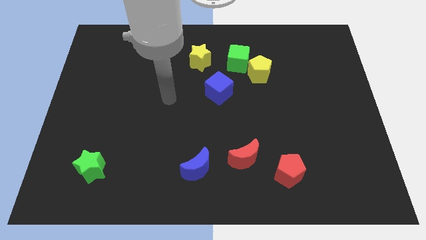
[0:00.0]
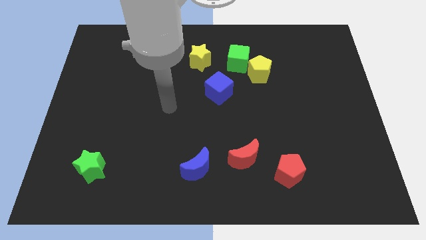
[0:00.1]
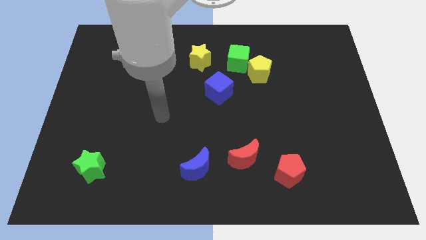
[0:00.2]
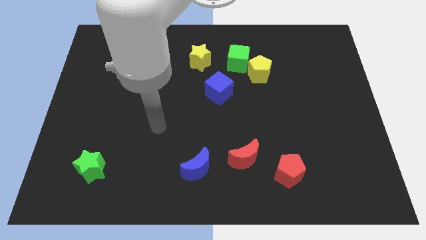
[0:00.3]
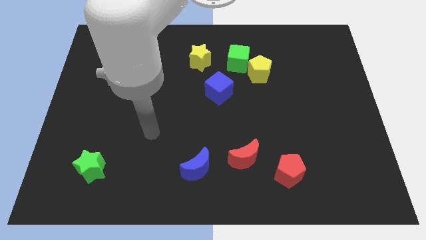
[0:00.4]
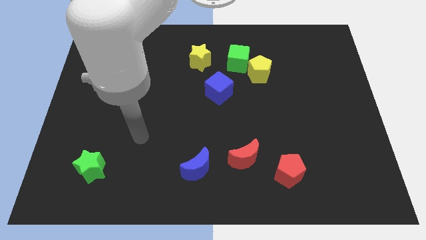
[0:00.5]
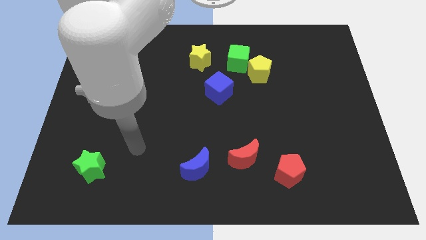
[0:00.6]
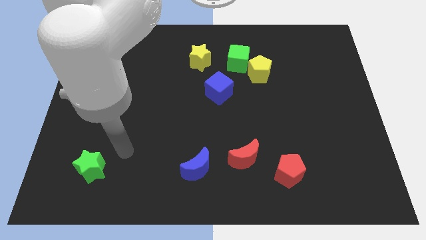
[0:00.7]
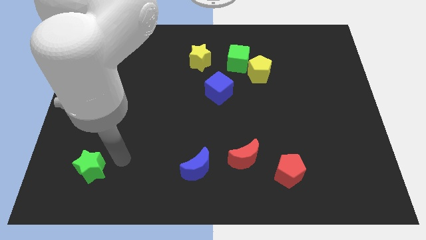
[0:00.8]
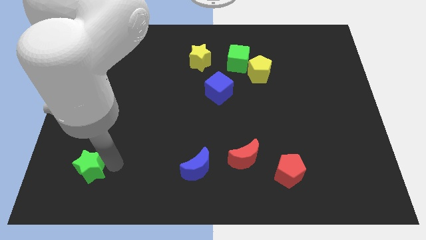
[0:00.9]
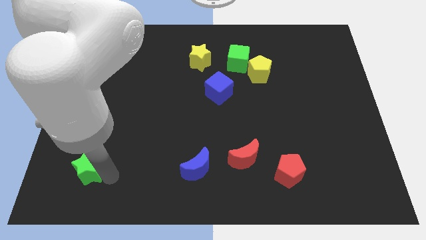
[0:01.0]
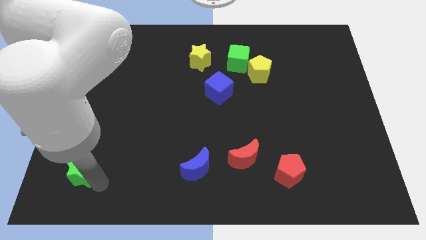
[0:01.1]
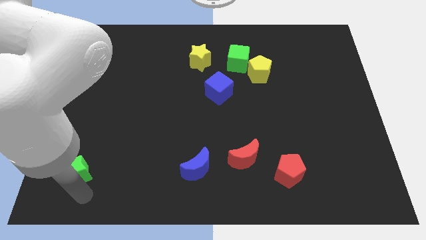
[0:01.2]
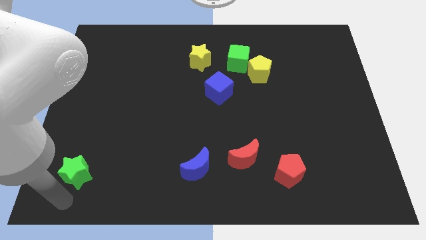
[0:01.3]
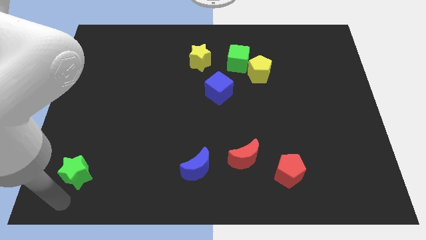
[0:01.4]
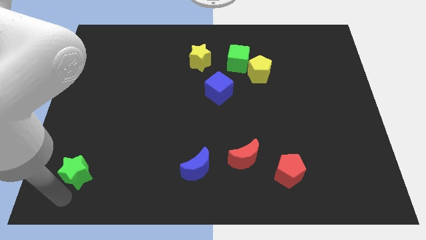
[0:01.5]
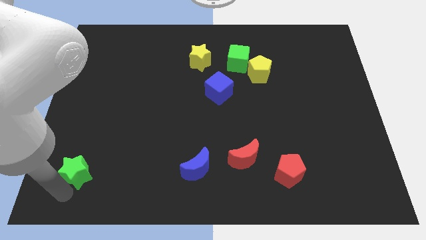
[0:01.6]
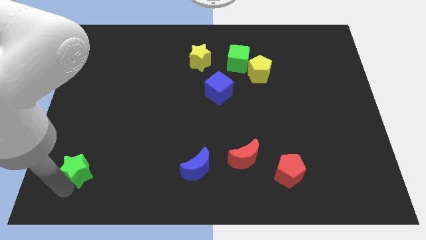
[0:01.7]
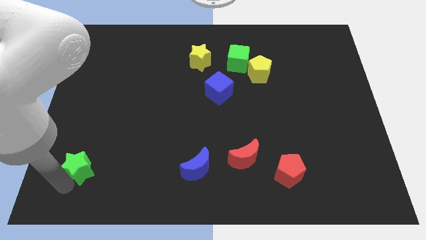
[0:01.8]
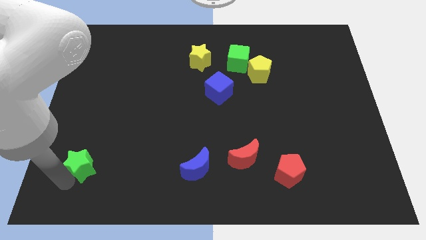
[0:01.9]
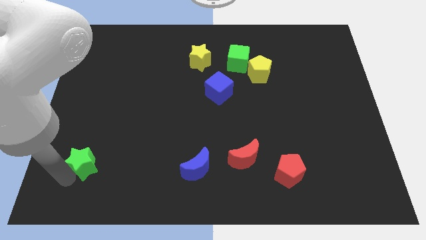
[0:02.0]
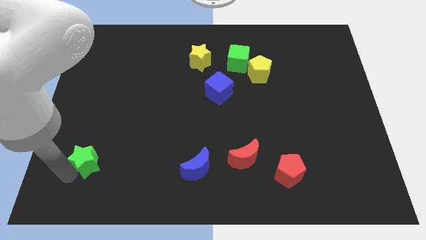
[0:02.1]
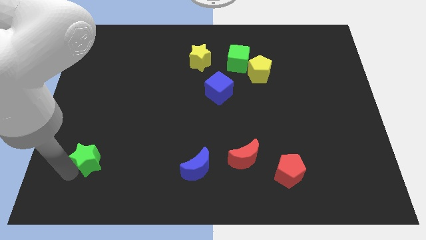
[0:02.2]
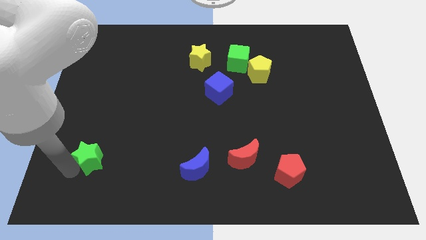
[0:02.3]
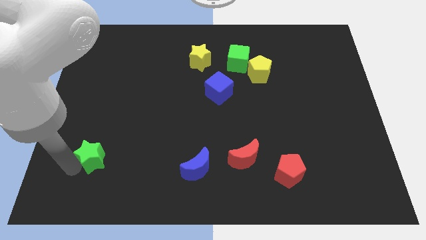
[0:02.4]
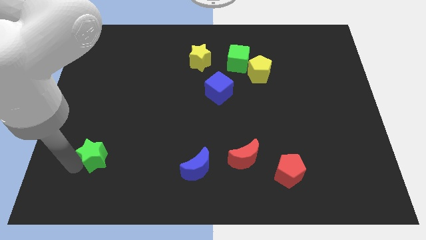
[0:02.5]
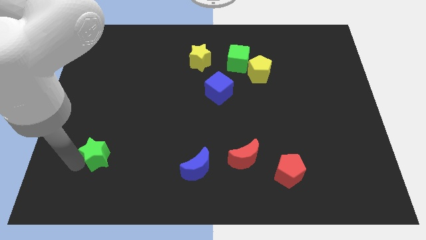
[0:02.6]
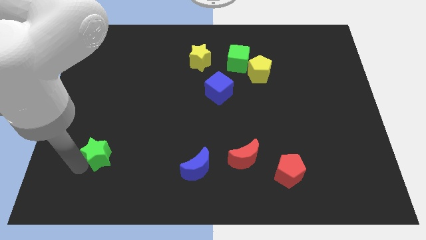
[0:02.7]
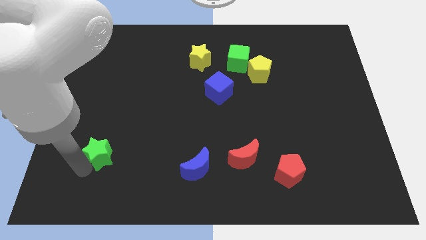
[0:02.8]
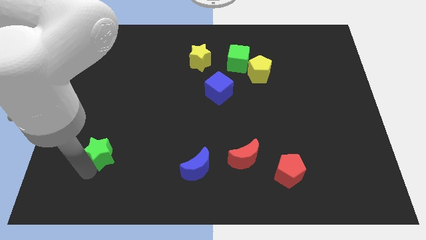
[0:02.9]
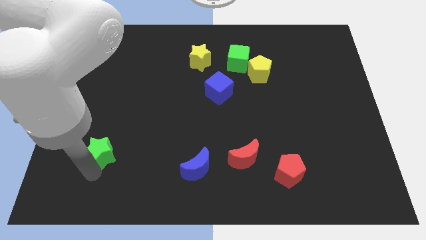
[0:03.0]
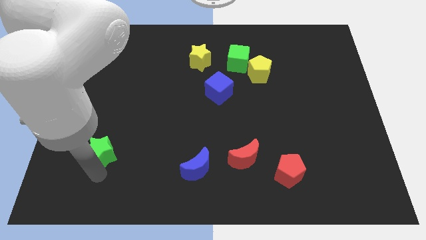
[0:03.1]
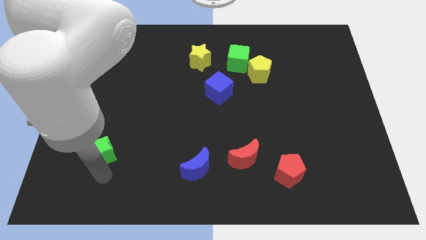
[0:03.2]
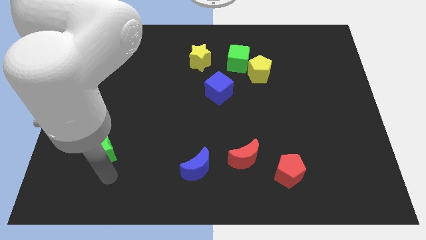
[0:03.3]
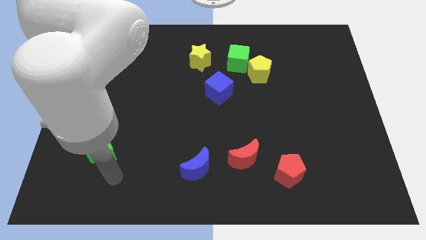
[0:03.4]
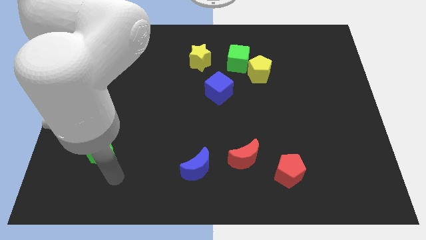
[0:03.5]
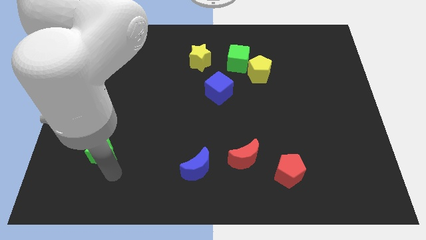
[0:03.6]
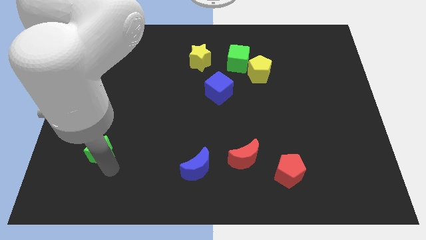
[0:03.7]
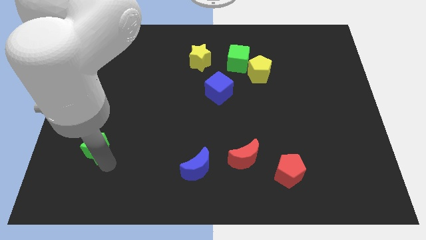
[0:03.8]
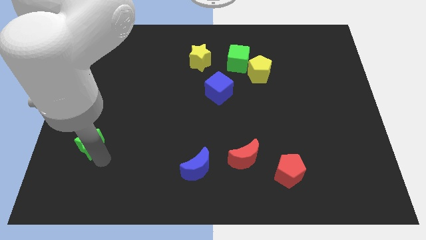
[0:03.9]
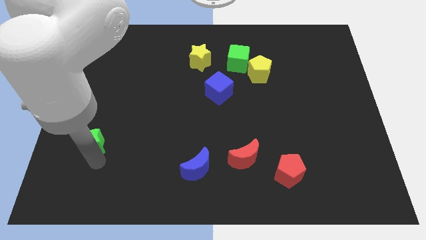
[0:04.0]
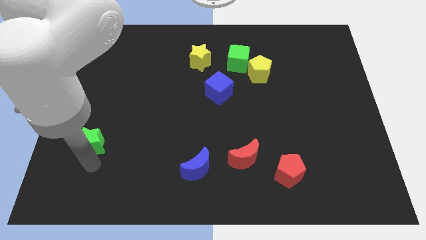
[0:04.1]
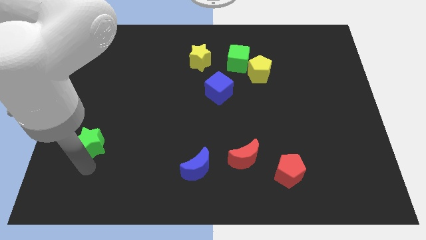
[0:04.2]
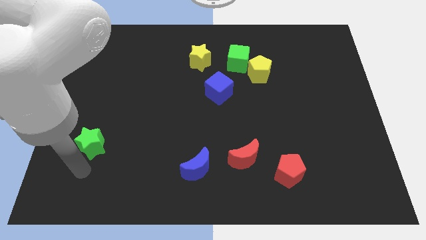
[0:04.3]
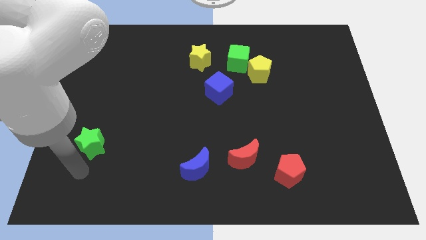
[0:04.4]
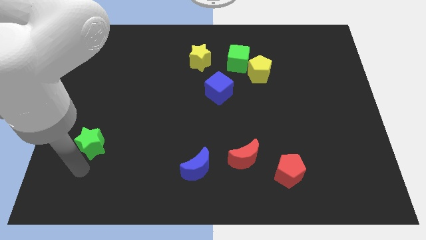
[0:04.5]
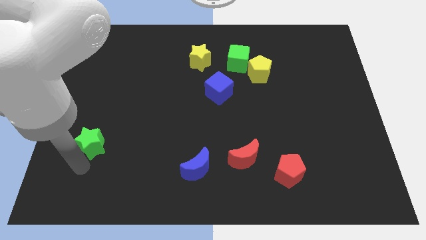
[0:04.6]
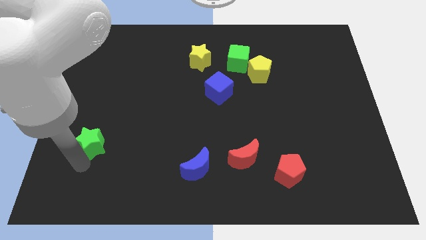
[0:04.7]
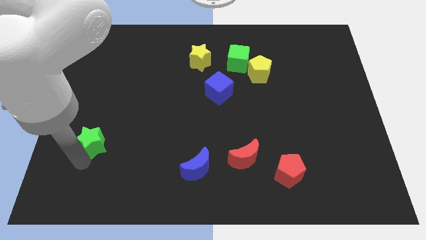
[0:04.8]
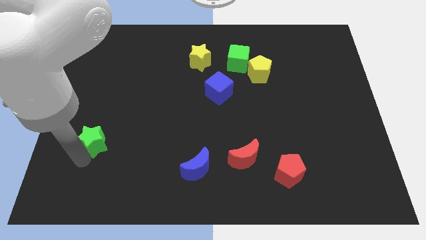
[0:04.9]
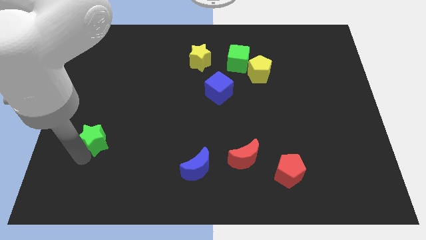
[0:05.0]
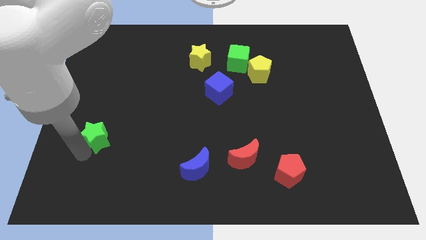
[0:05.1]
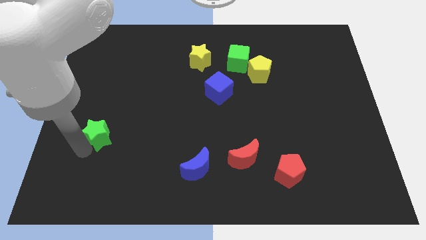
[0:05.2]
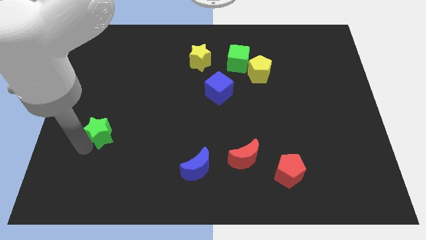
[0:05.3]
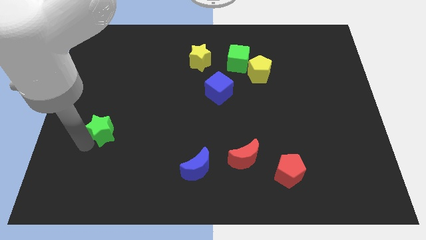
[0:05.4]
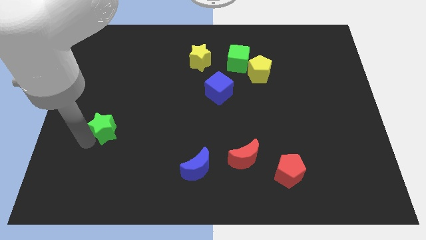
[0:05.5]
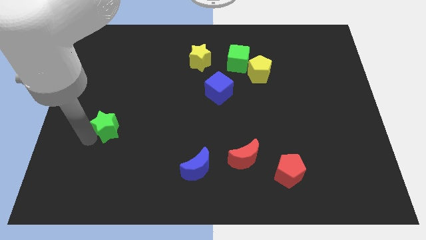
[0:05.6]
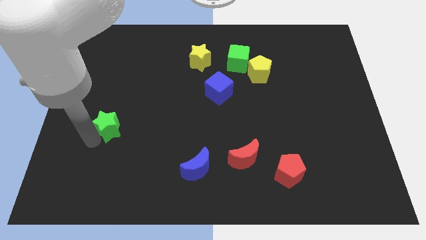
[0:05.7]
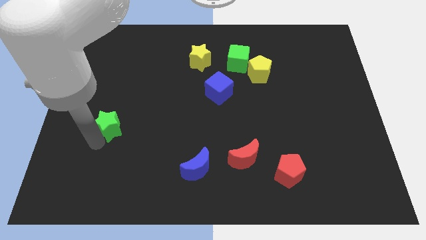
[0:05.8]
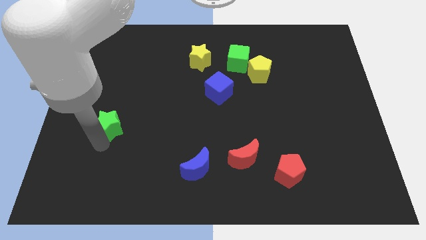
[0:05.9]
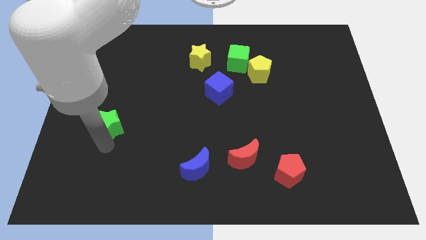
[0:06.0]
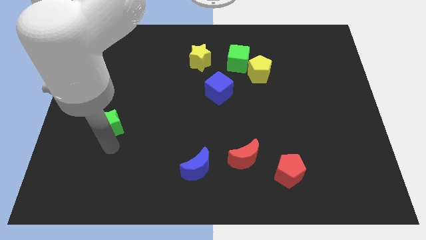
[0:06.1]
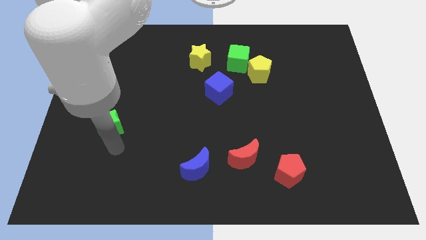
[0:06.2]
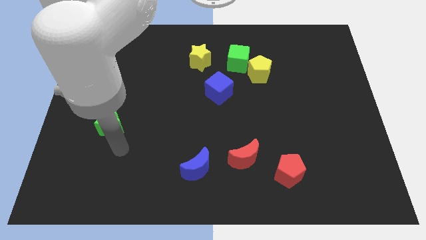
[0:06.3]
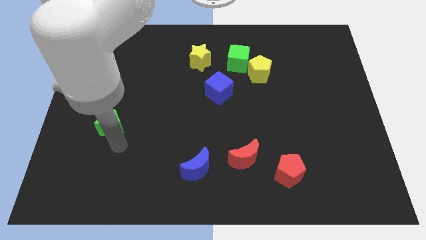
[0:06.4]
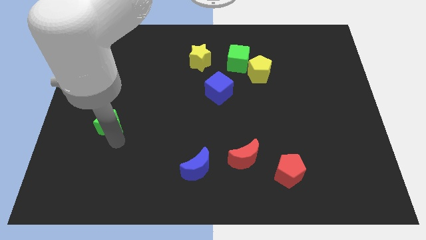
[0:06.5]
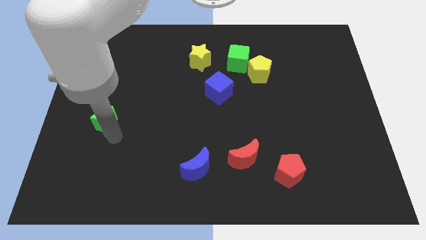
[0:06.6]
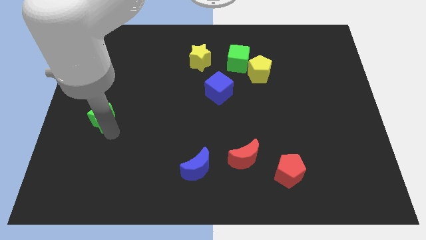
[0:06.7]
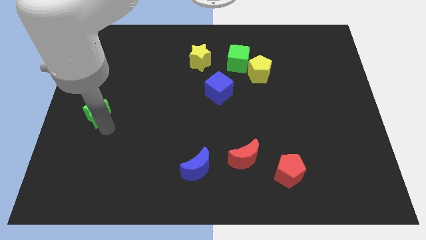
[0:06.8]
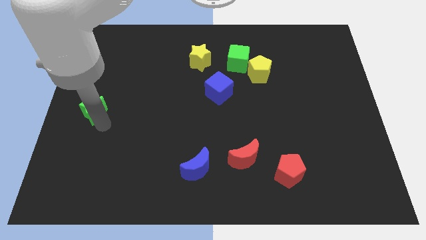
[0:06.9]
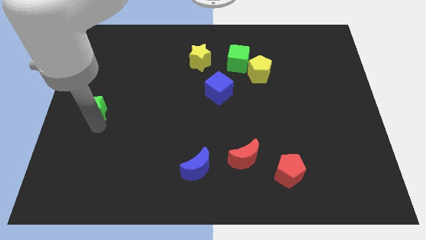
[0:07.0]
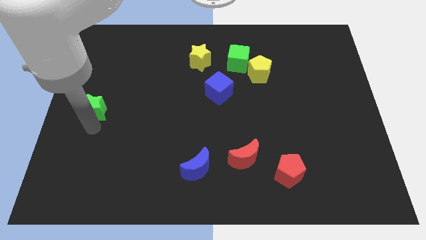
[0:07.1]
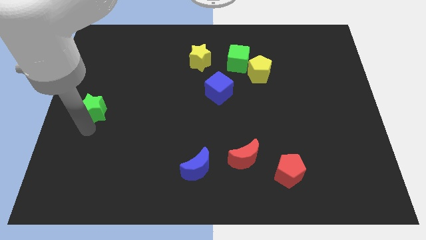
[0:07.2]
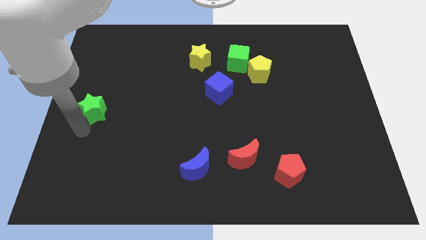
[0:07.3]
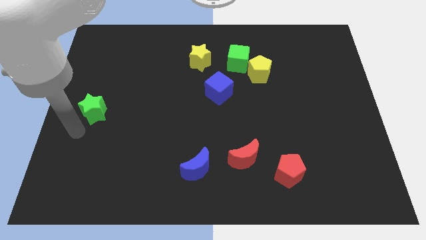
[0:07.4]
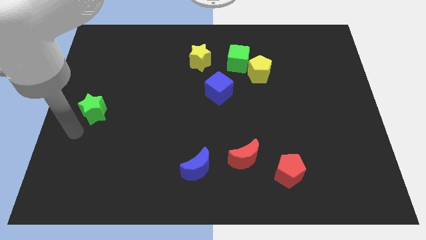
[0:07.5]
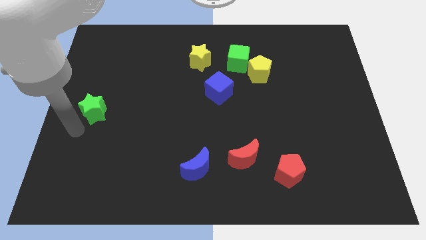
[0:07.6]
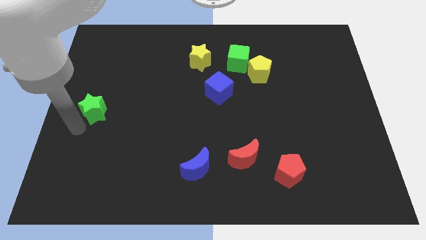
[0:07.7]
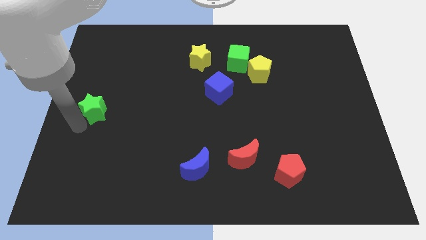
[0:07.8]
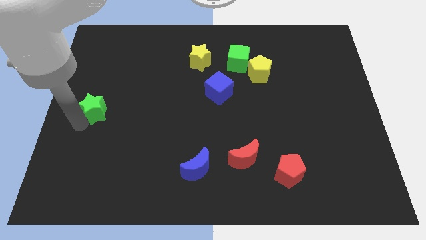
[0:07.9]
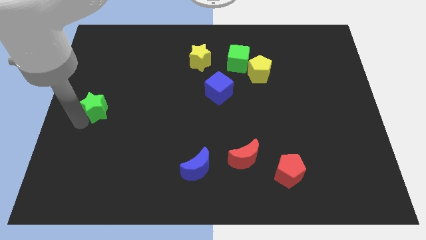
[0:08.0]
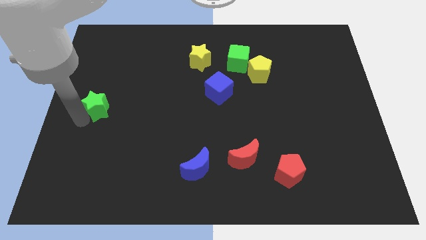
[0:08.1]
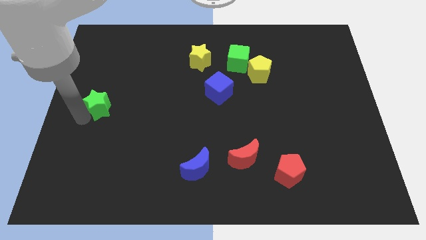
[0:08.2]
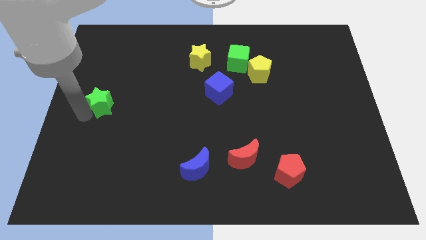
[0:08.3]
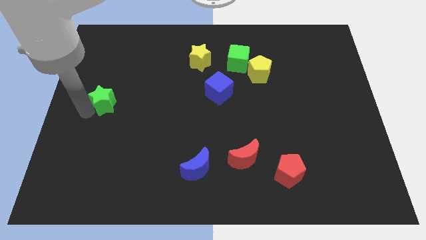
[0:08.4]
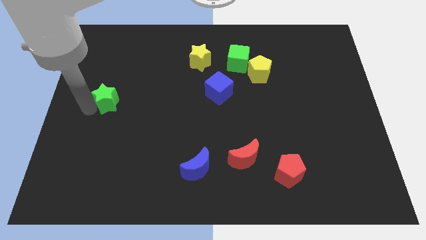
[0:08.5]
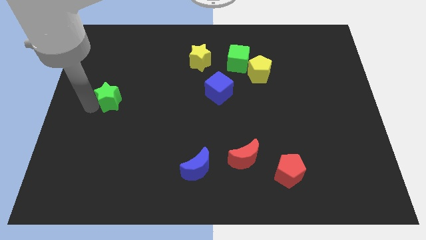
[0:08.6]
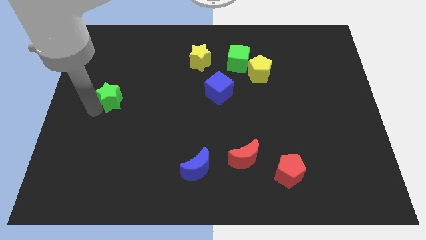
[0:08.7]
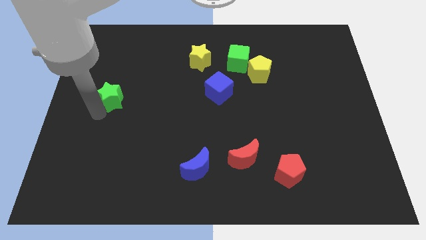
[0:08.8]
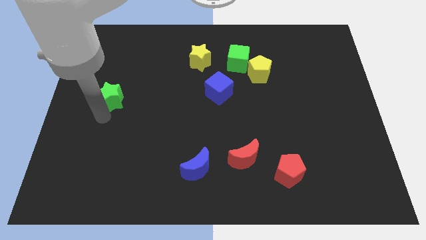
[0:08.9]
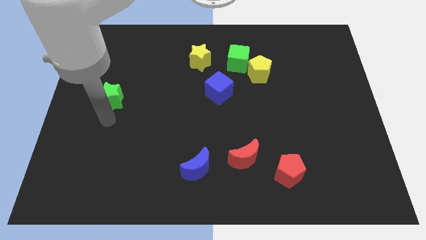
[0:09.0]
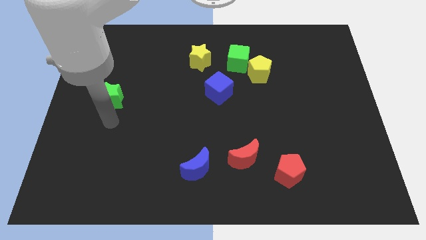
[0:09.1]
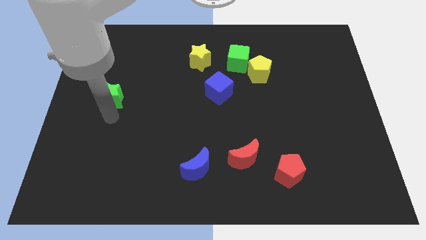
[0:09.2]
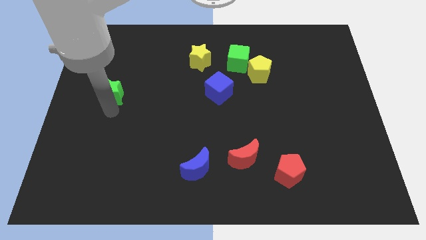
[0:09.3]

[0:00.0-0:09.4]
push the green star up
